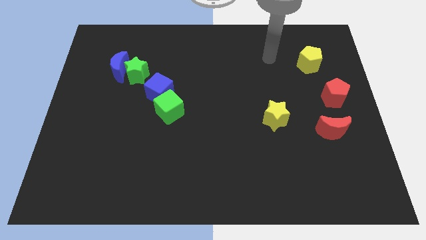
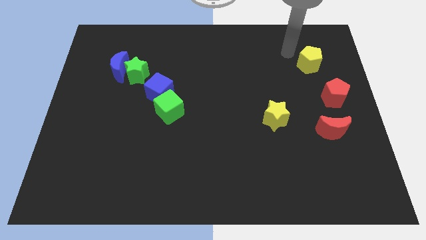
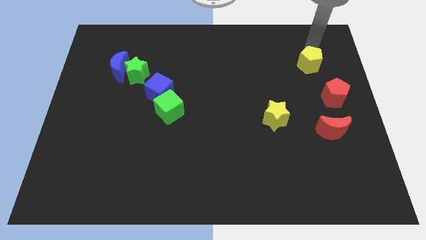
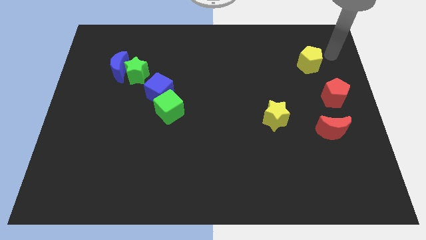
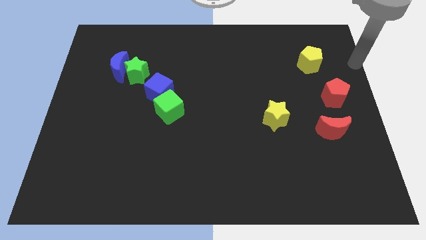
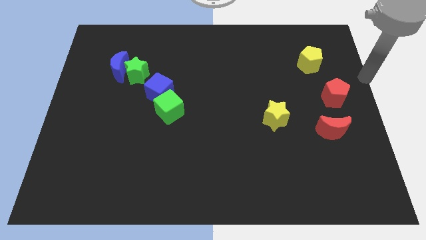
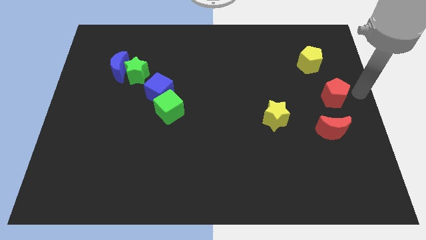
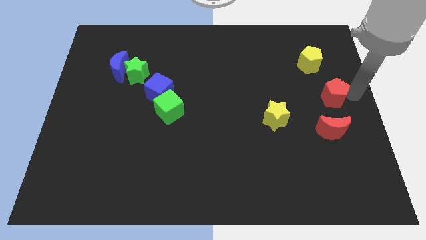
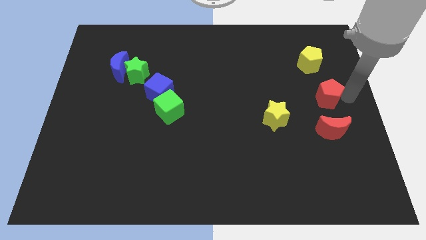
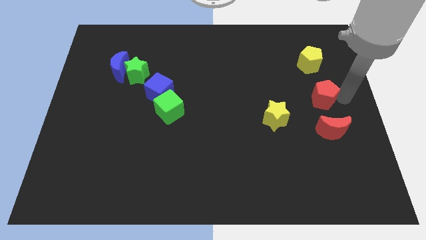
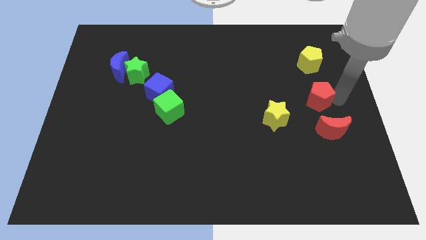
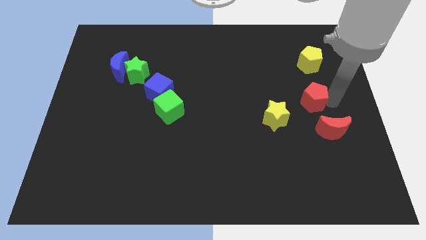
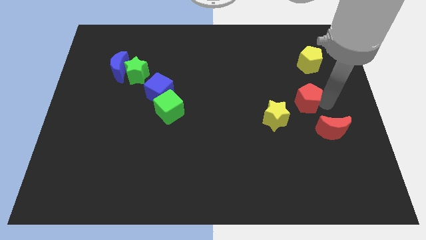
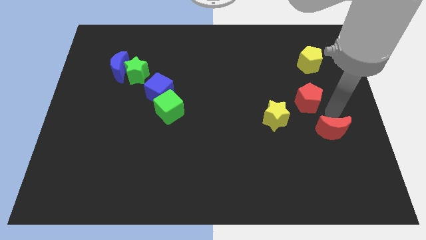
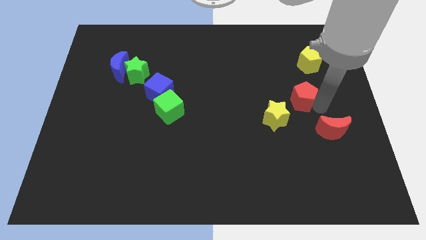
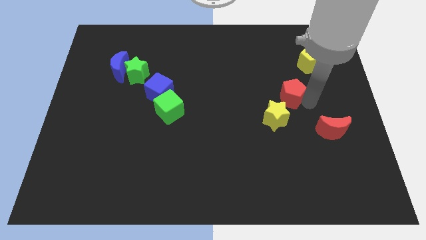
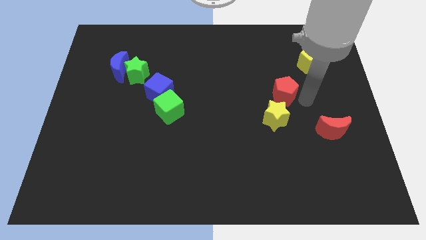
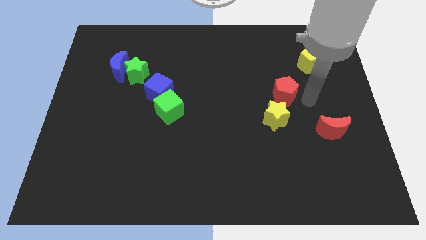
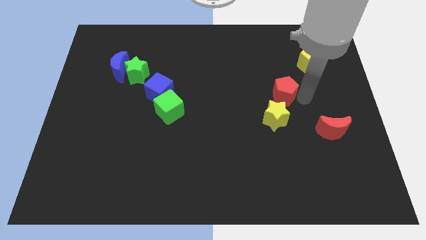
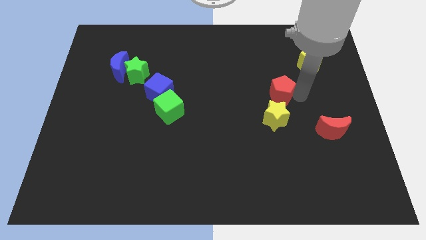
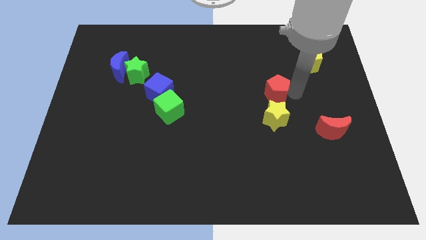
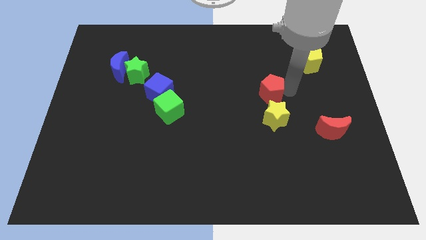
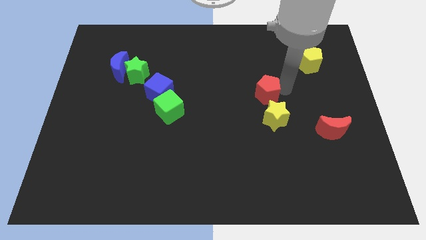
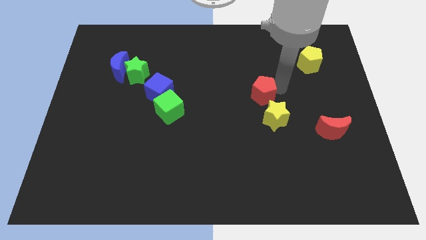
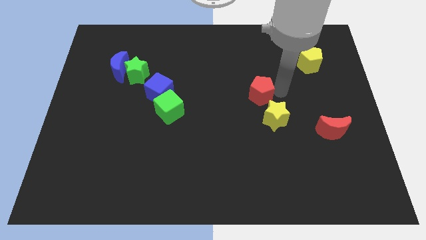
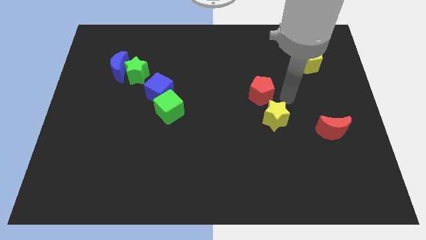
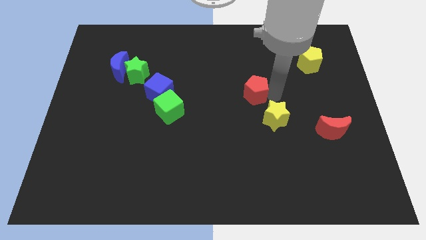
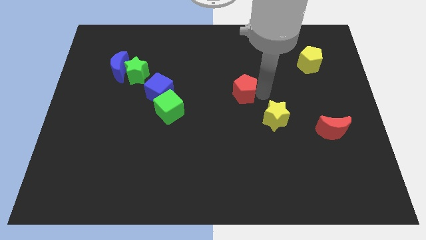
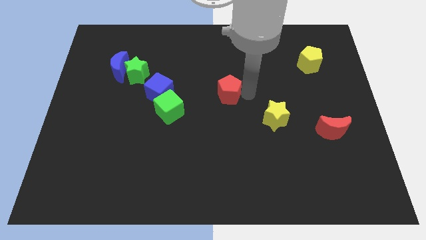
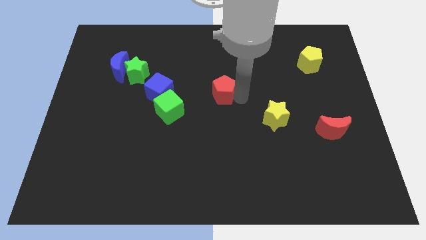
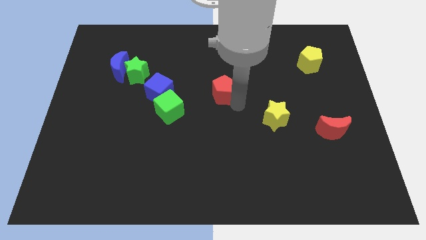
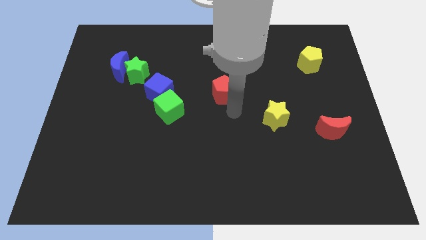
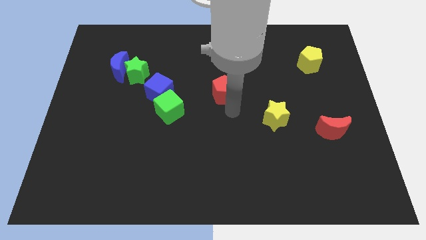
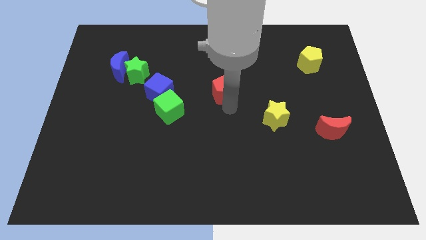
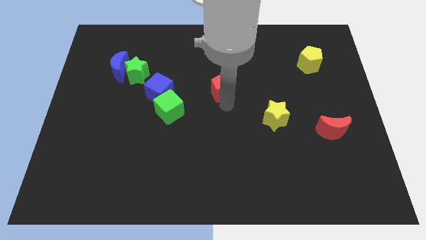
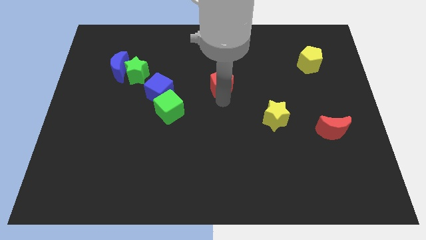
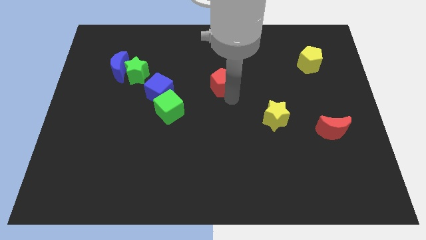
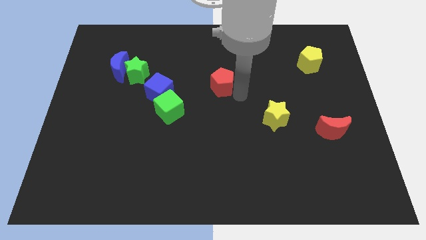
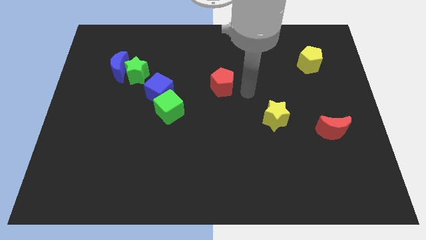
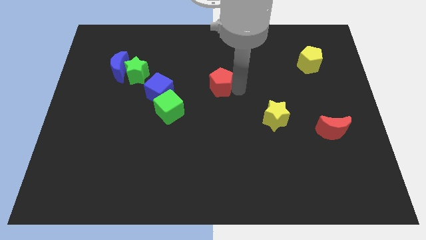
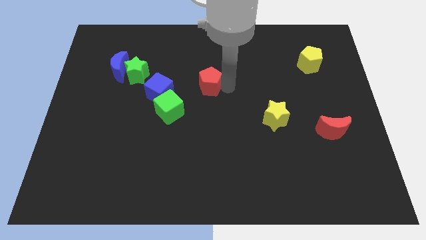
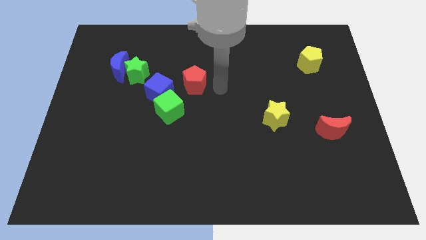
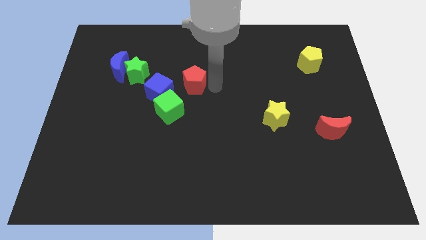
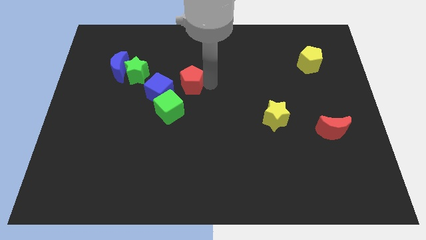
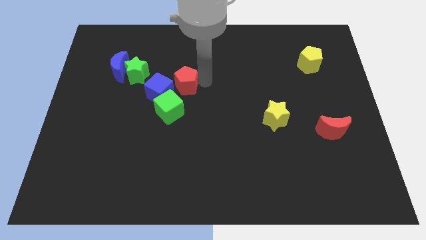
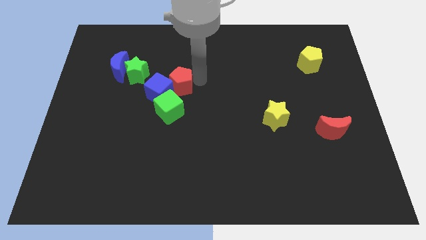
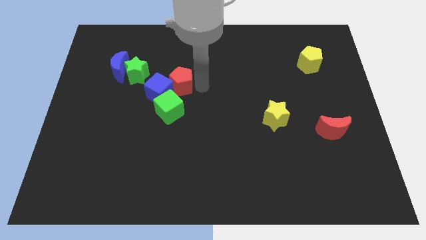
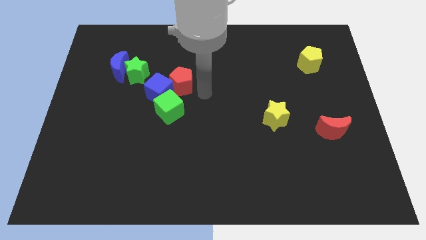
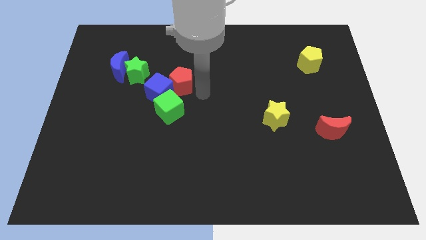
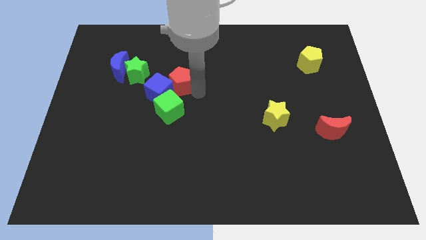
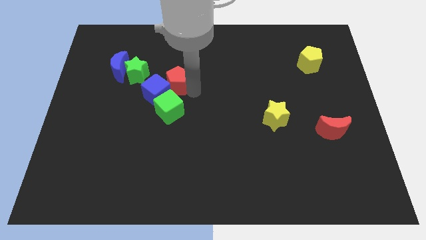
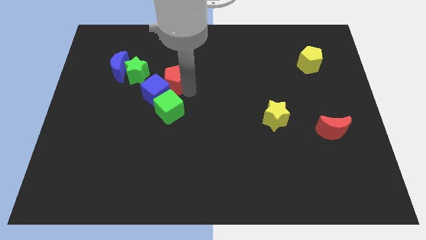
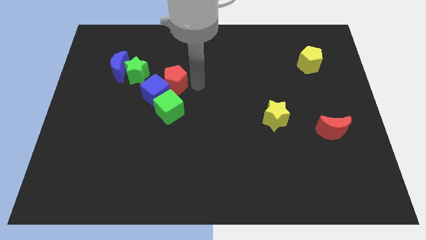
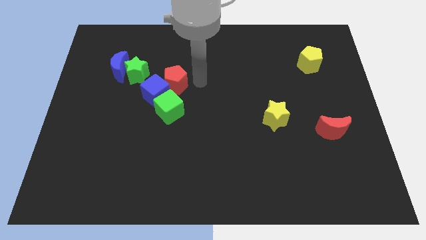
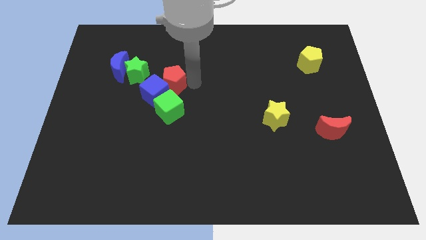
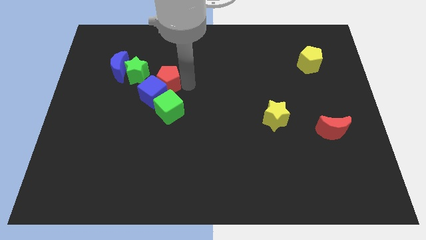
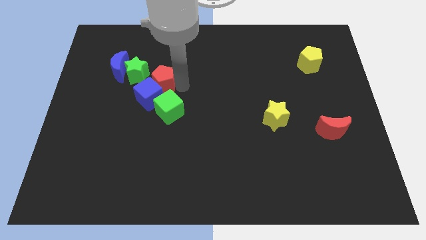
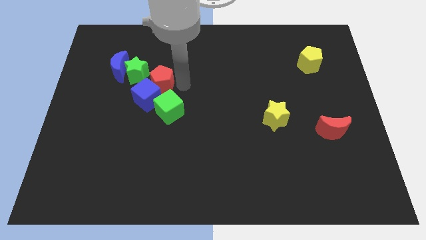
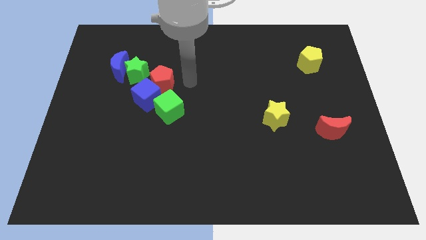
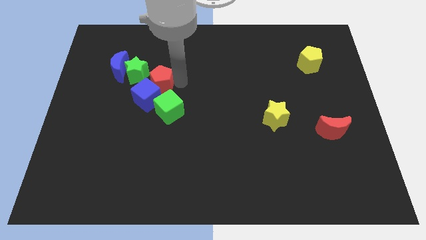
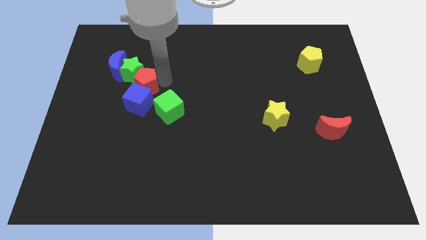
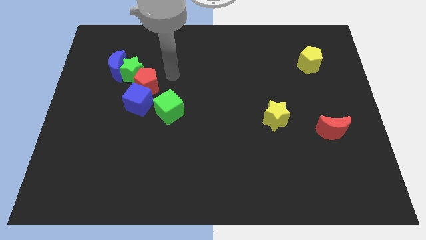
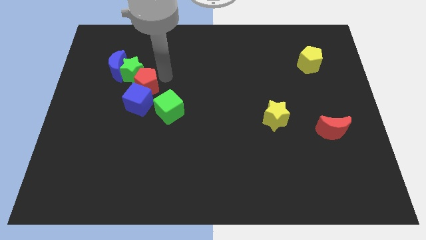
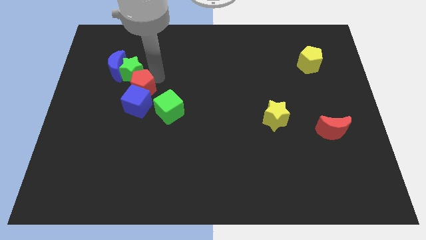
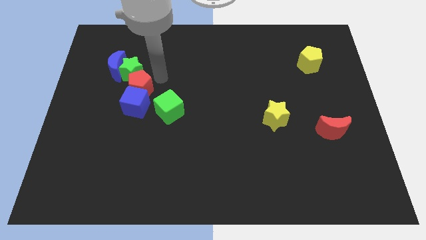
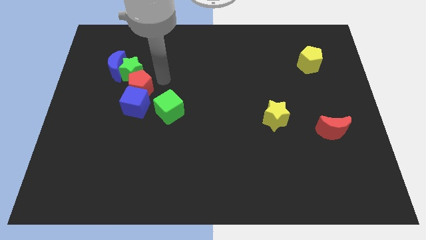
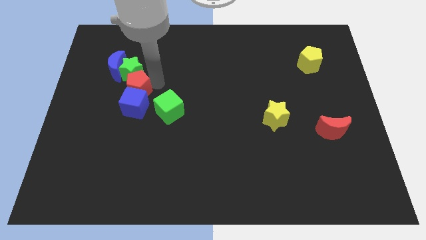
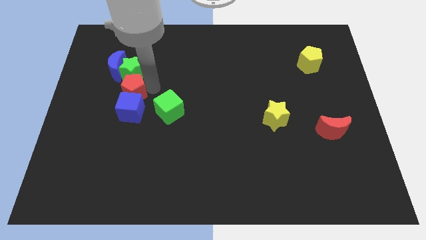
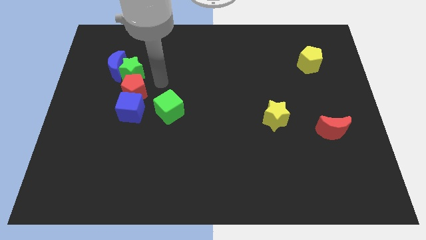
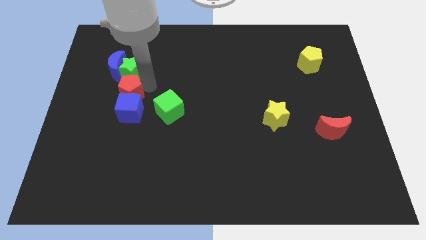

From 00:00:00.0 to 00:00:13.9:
slide the red pentagon to the bottom side of the blue moon

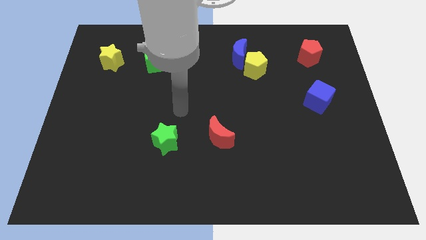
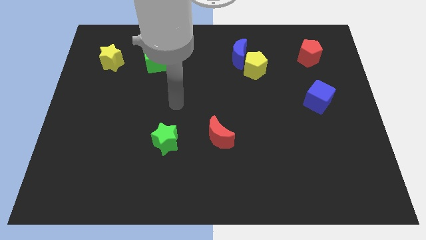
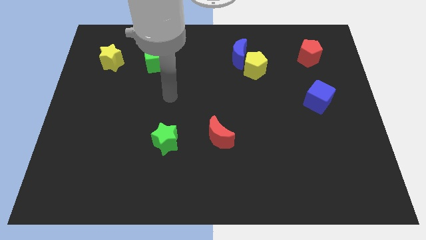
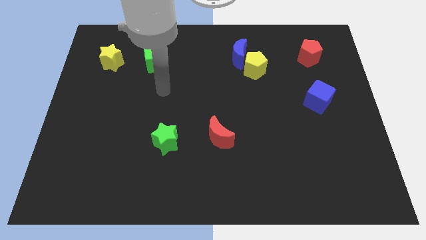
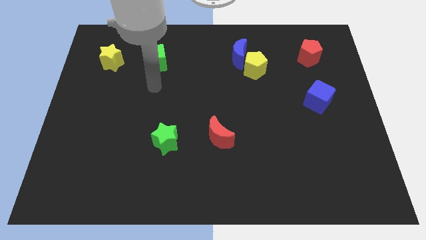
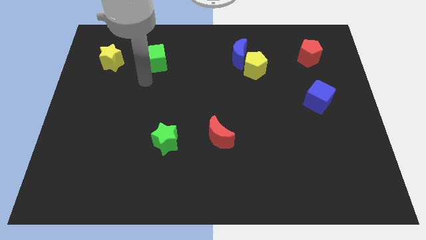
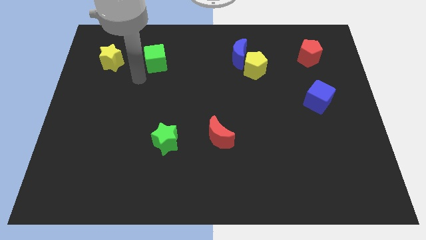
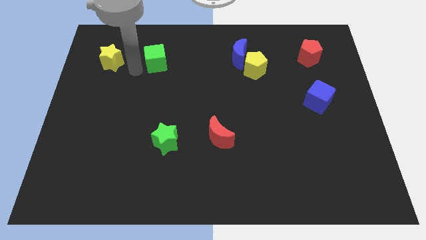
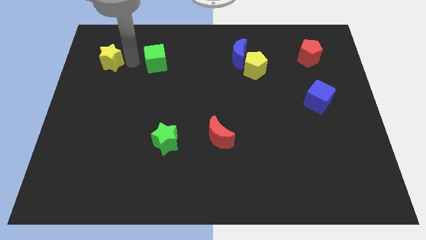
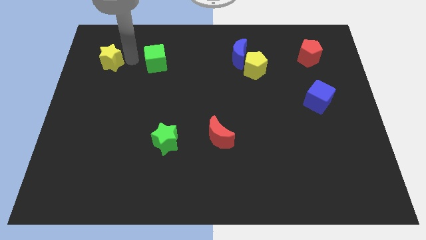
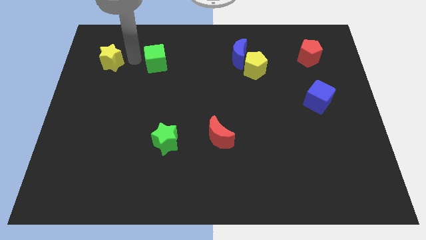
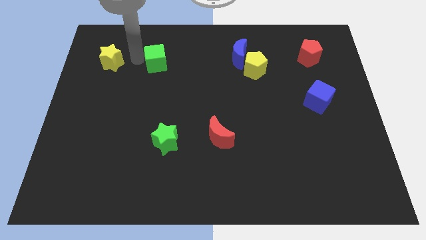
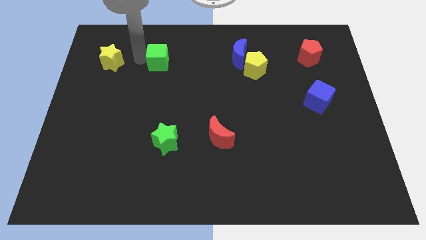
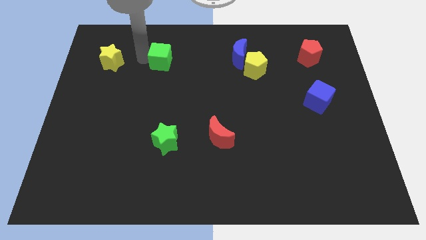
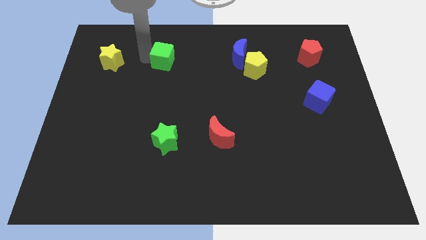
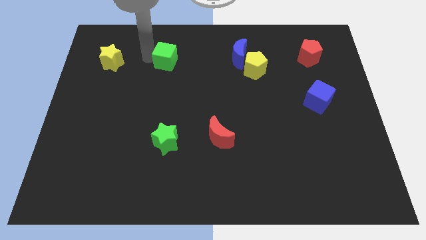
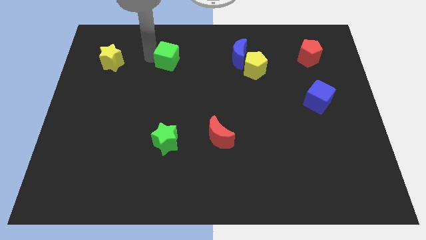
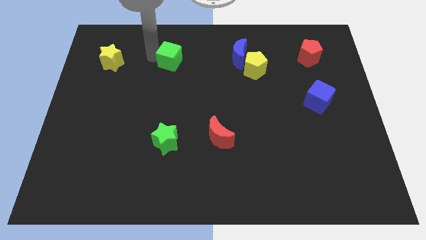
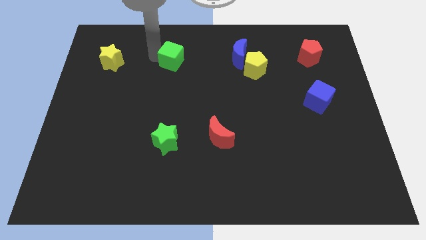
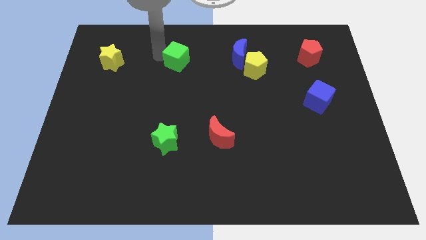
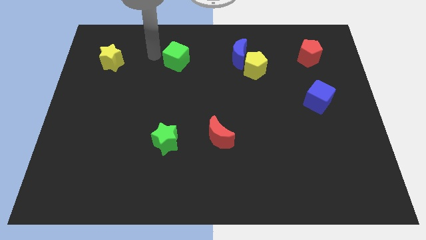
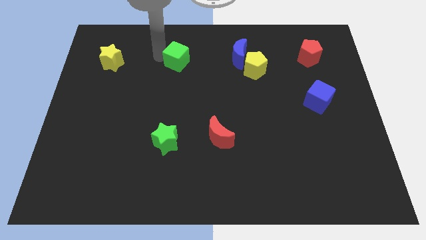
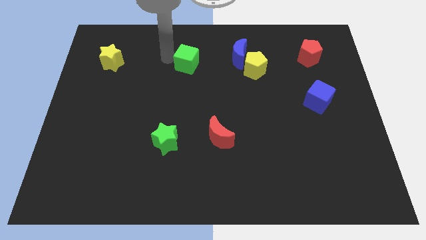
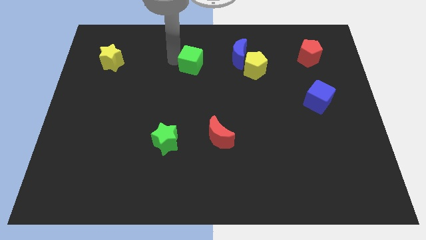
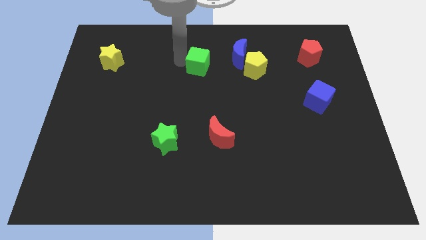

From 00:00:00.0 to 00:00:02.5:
move the green cube to the left side of the yellow pentagon
